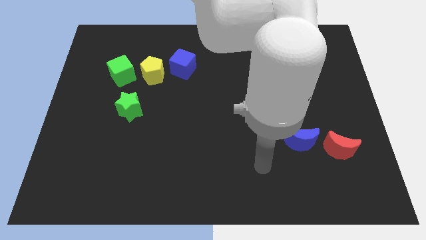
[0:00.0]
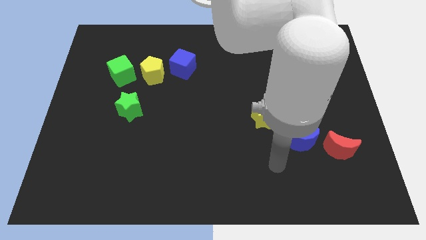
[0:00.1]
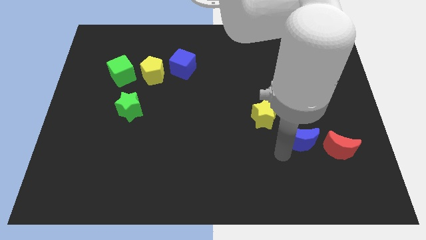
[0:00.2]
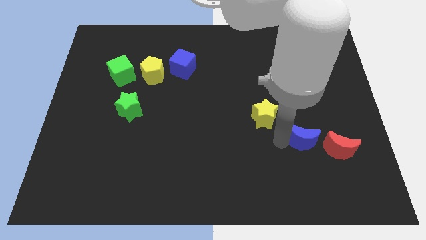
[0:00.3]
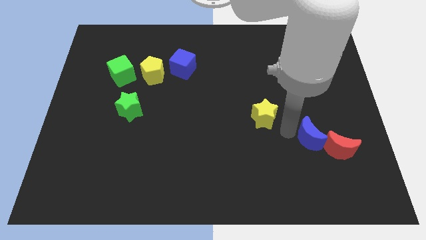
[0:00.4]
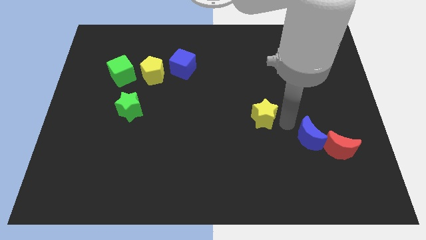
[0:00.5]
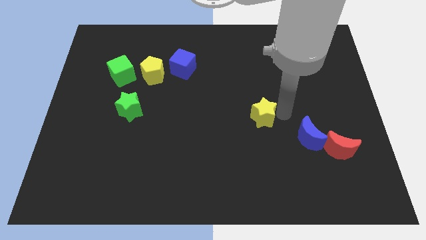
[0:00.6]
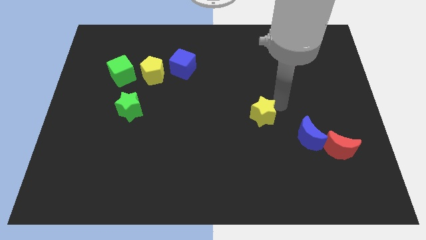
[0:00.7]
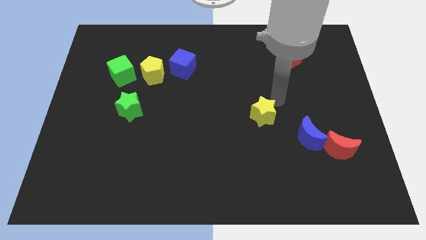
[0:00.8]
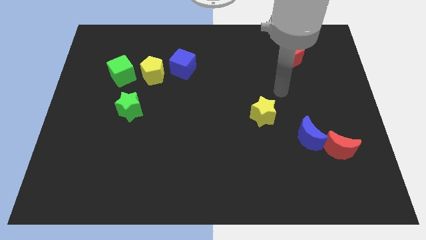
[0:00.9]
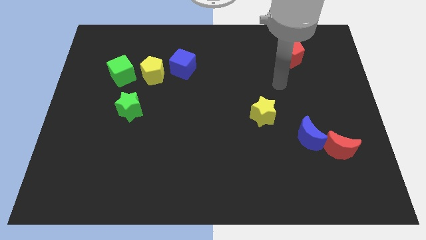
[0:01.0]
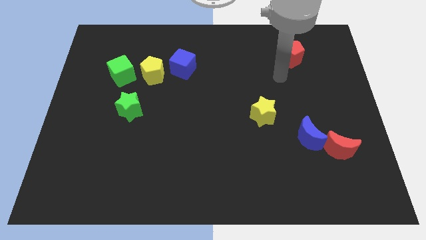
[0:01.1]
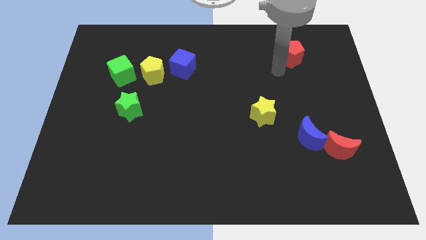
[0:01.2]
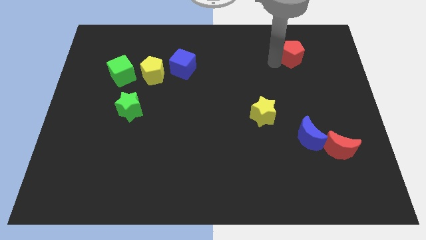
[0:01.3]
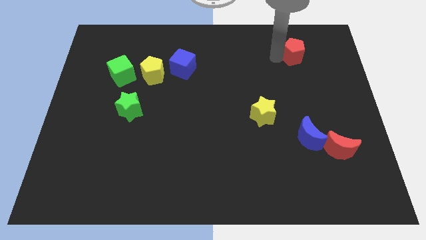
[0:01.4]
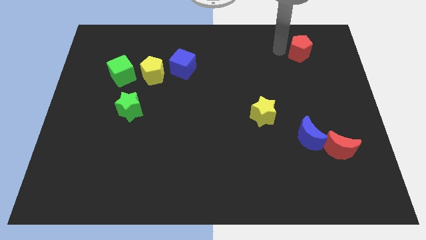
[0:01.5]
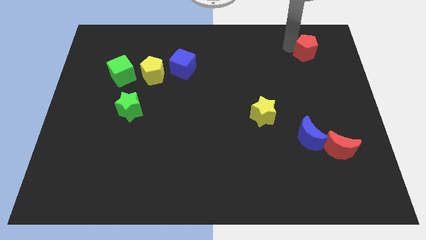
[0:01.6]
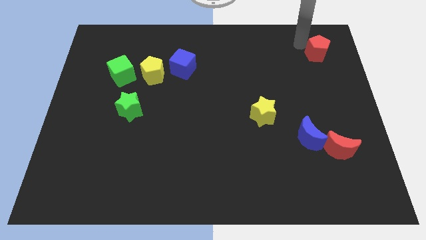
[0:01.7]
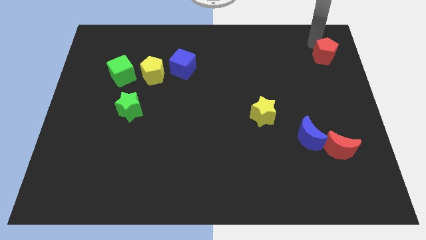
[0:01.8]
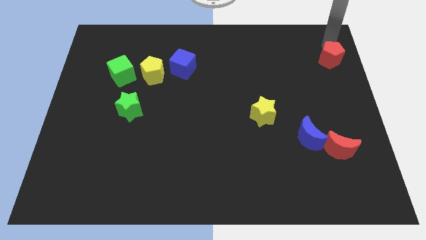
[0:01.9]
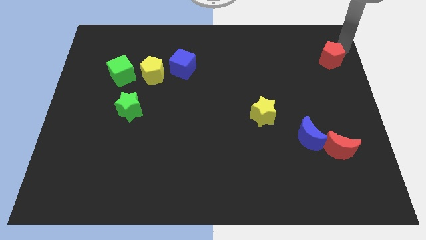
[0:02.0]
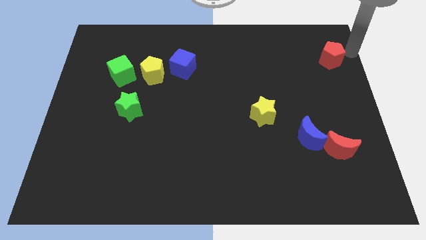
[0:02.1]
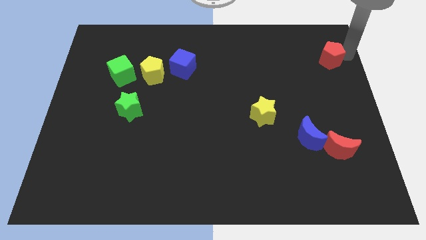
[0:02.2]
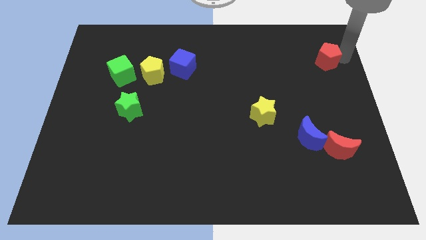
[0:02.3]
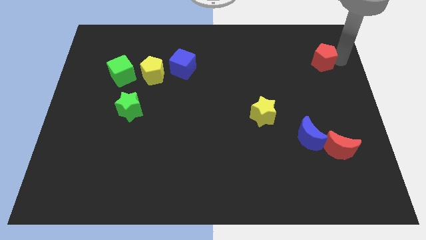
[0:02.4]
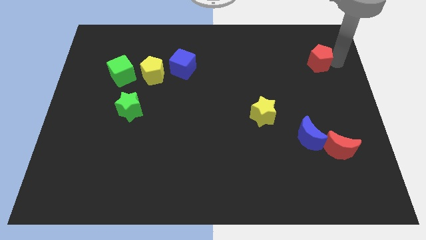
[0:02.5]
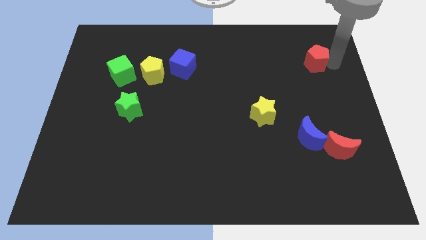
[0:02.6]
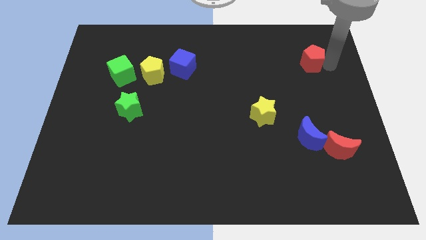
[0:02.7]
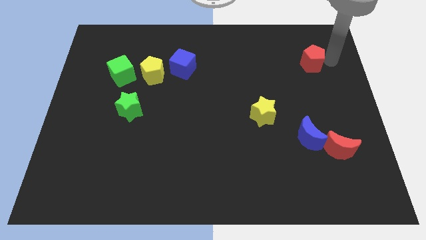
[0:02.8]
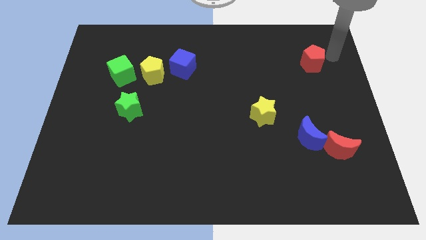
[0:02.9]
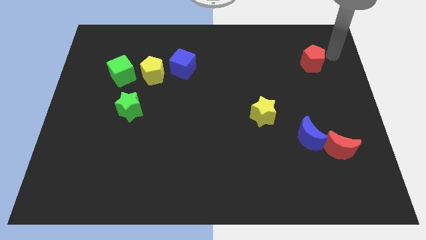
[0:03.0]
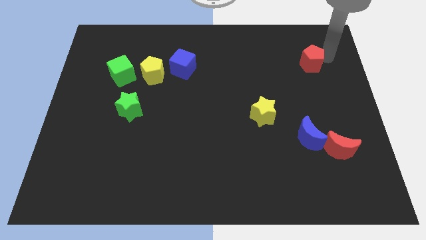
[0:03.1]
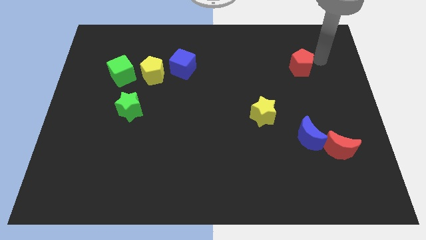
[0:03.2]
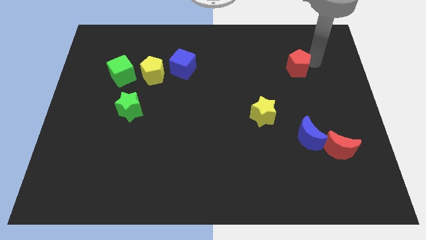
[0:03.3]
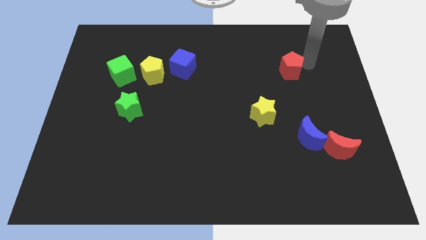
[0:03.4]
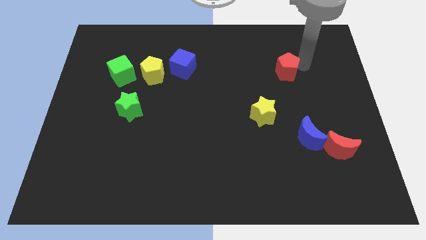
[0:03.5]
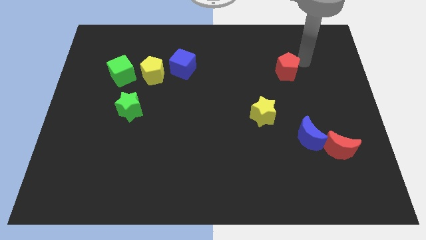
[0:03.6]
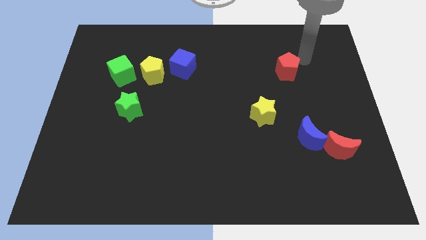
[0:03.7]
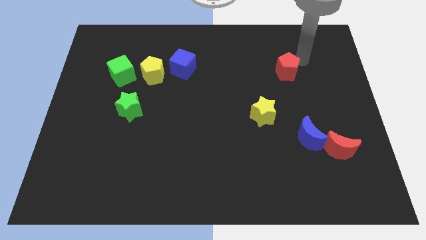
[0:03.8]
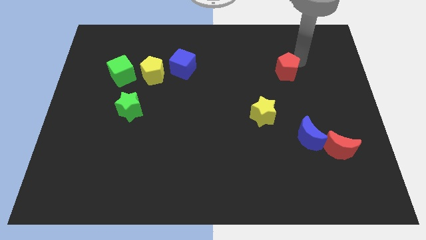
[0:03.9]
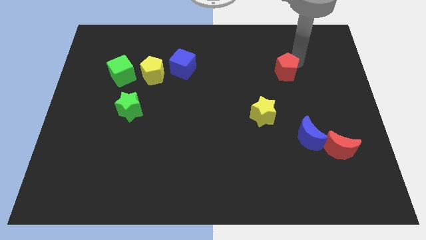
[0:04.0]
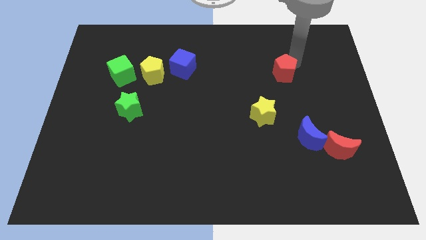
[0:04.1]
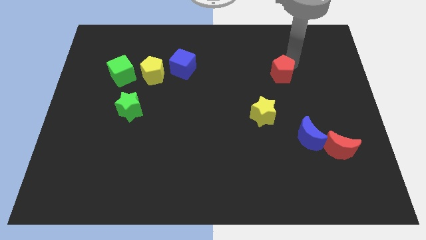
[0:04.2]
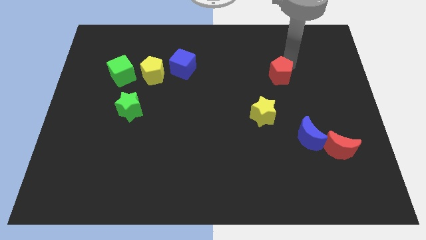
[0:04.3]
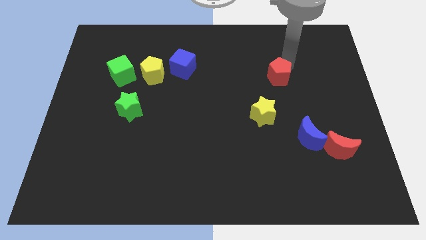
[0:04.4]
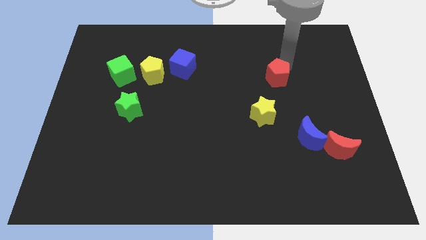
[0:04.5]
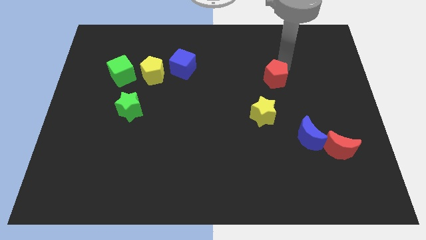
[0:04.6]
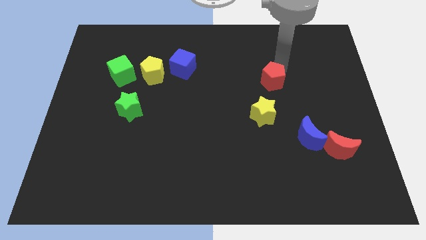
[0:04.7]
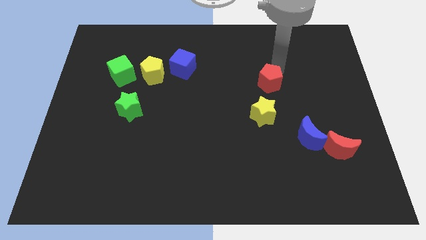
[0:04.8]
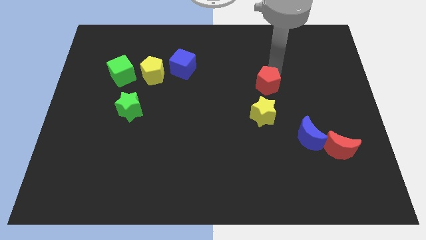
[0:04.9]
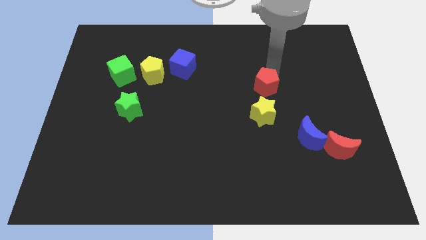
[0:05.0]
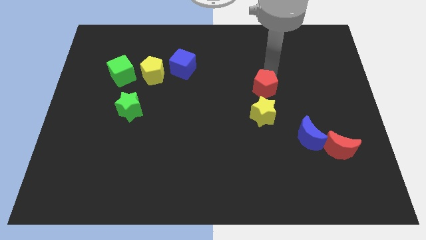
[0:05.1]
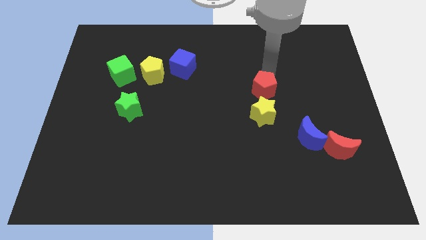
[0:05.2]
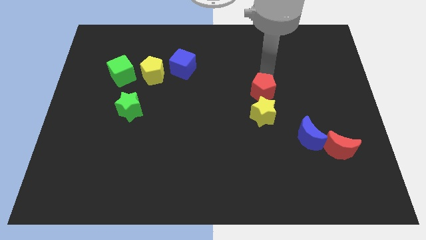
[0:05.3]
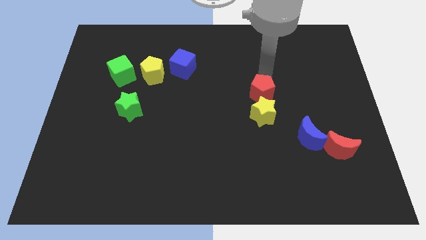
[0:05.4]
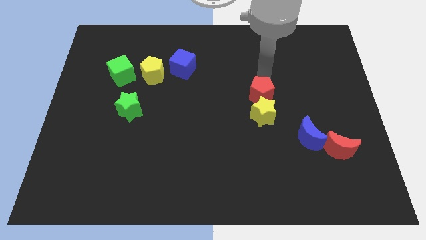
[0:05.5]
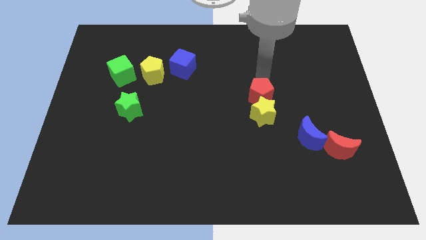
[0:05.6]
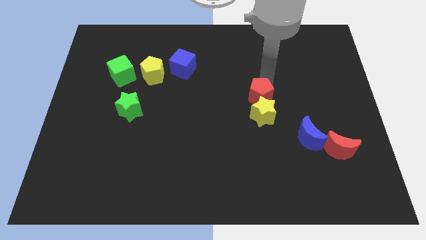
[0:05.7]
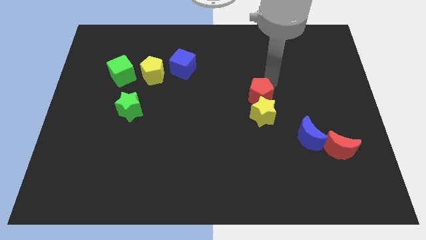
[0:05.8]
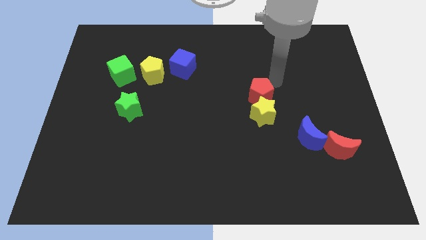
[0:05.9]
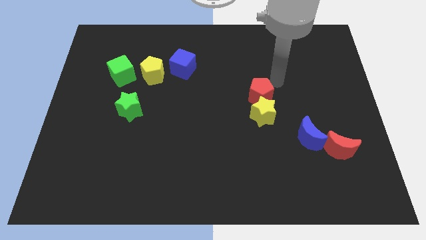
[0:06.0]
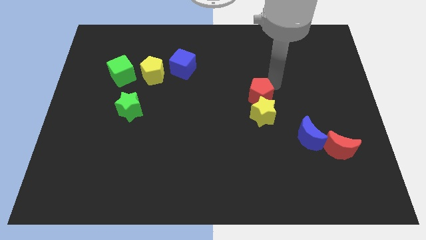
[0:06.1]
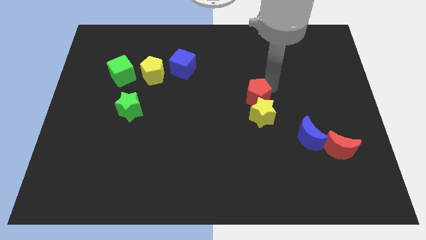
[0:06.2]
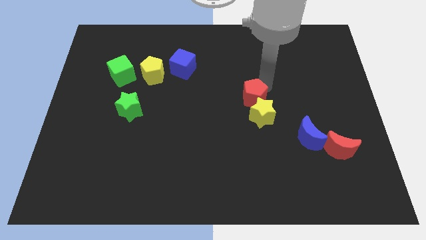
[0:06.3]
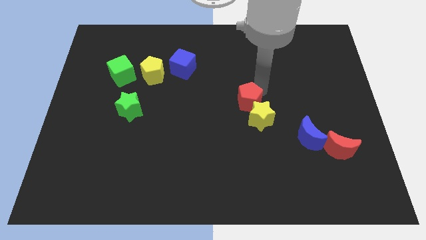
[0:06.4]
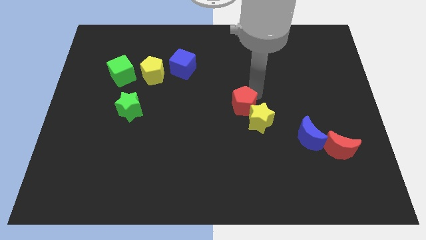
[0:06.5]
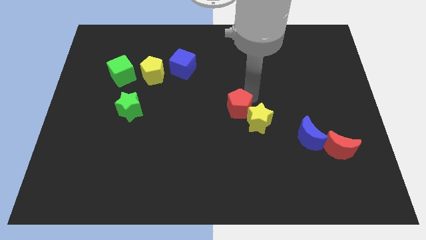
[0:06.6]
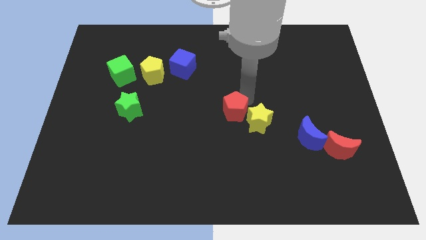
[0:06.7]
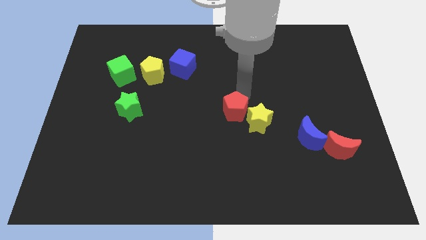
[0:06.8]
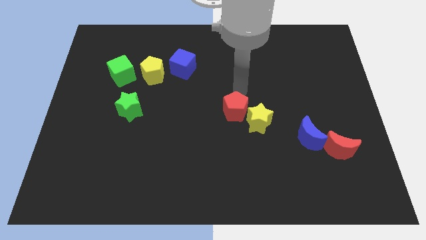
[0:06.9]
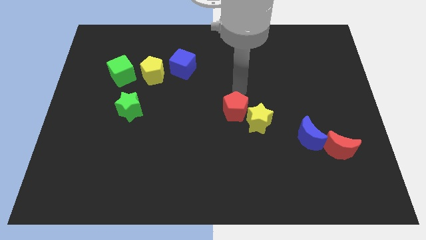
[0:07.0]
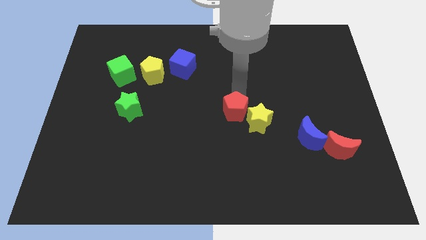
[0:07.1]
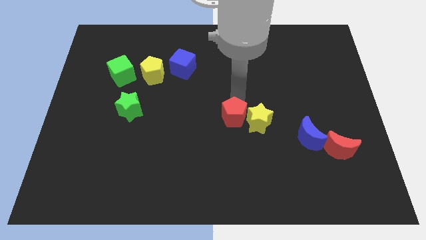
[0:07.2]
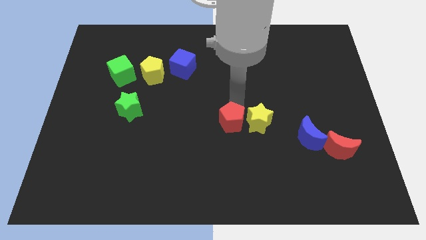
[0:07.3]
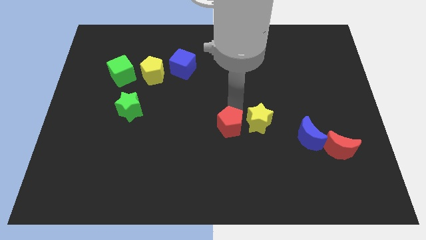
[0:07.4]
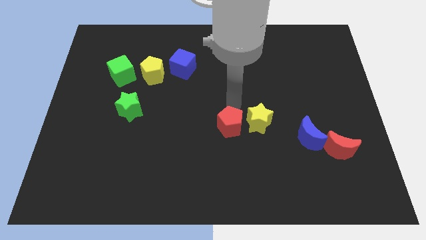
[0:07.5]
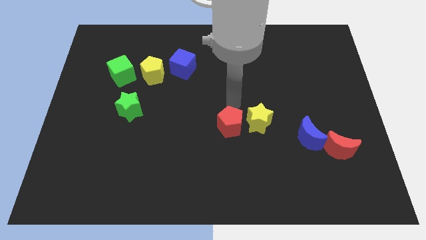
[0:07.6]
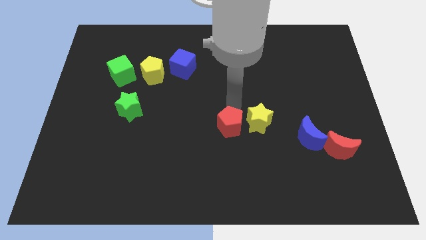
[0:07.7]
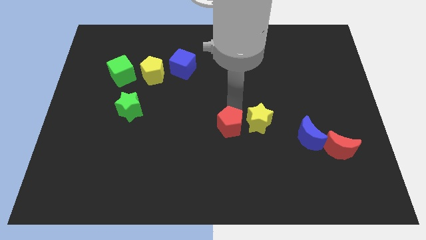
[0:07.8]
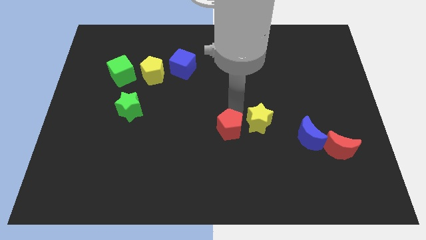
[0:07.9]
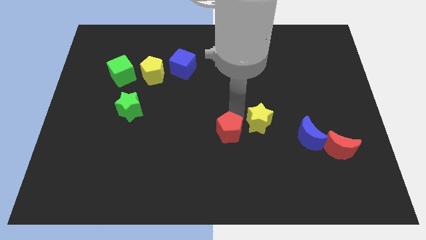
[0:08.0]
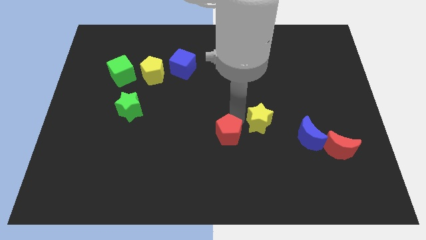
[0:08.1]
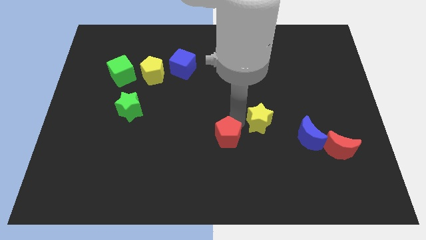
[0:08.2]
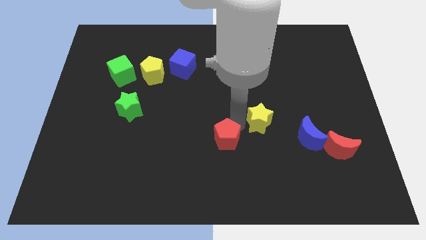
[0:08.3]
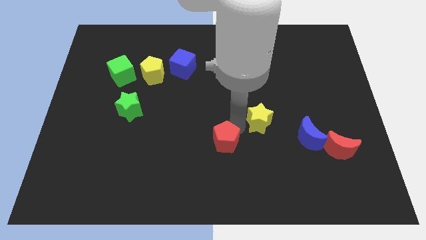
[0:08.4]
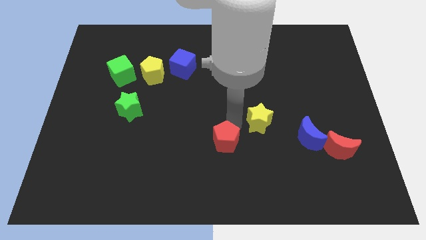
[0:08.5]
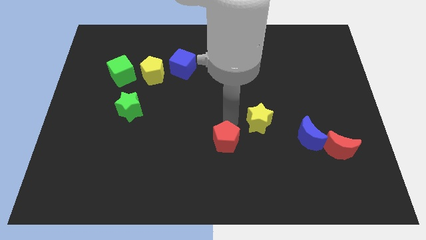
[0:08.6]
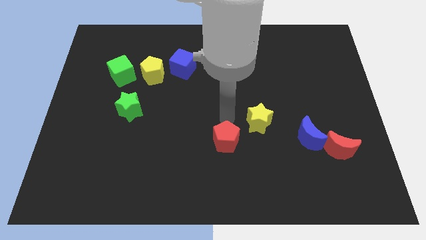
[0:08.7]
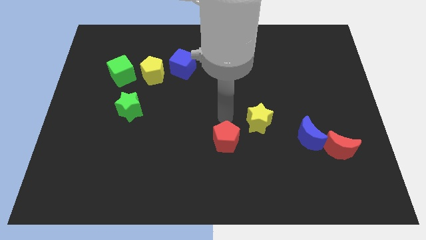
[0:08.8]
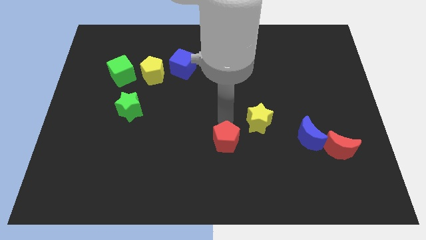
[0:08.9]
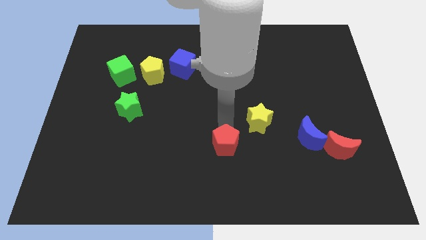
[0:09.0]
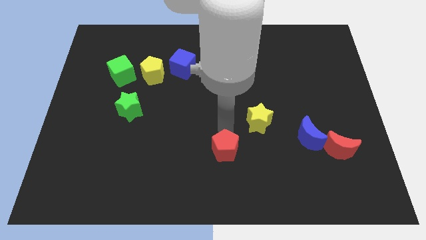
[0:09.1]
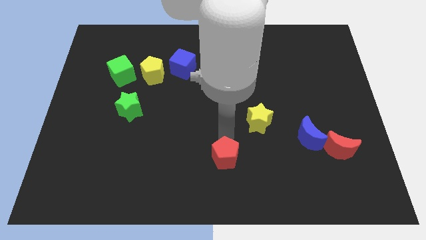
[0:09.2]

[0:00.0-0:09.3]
put the red pentagon to the bottom side
